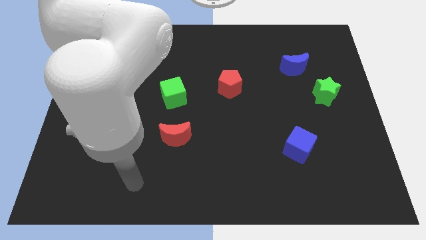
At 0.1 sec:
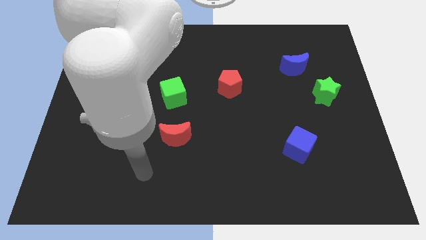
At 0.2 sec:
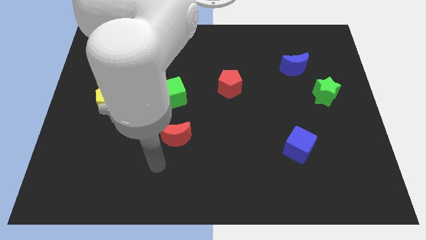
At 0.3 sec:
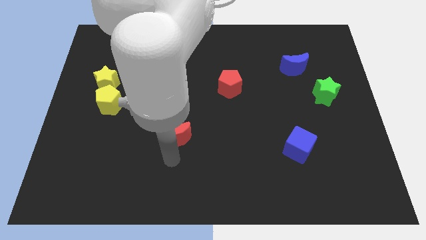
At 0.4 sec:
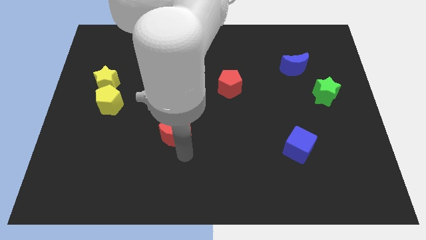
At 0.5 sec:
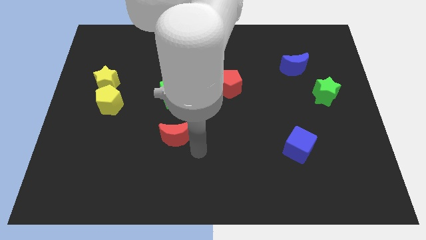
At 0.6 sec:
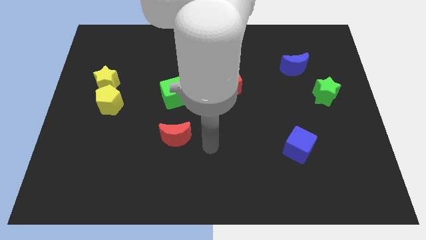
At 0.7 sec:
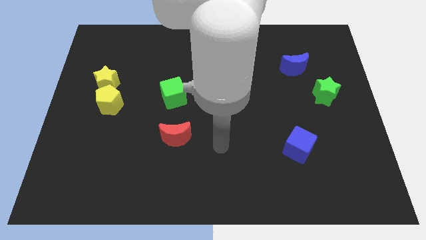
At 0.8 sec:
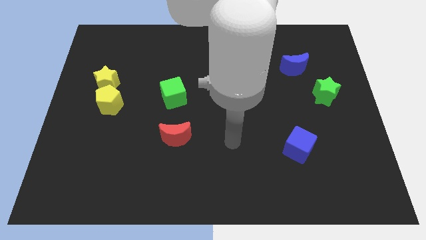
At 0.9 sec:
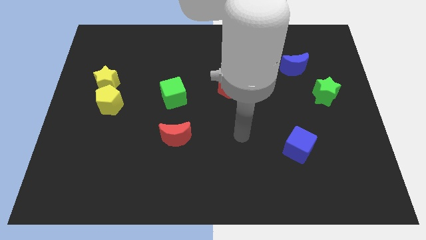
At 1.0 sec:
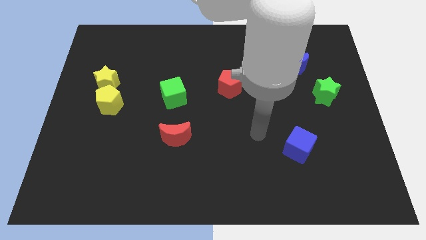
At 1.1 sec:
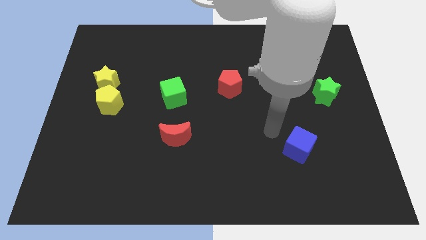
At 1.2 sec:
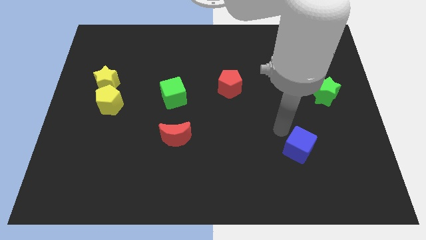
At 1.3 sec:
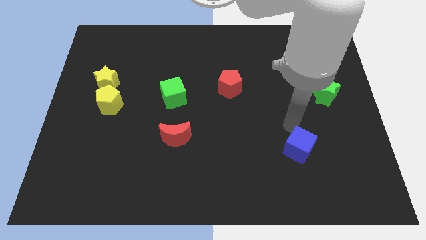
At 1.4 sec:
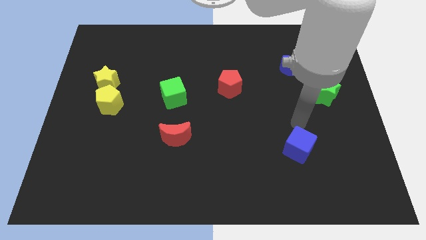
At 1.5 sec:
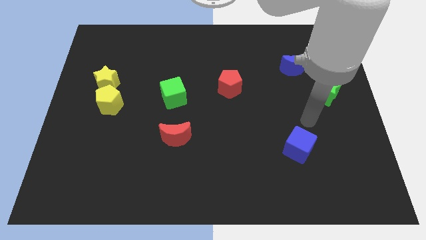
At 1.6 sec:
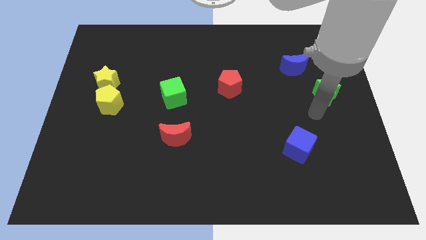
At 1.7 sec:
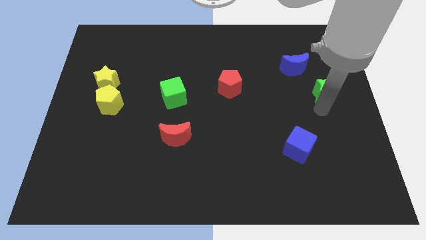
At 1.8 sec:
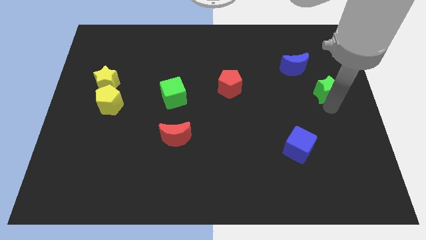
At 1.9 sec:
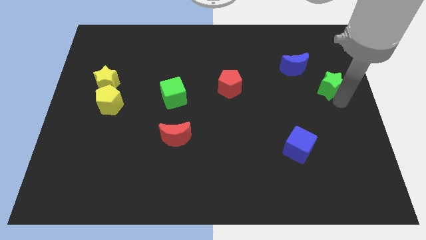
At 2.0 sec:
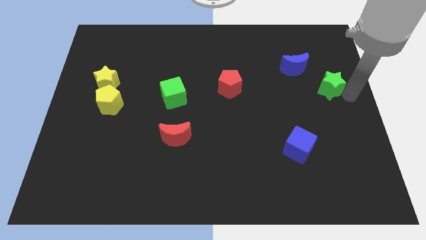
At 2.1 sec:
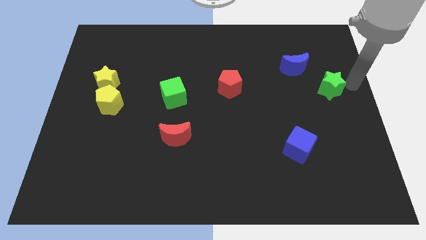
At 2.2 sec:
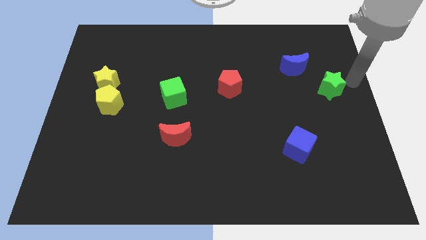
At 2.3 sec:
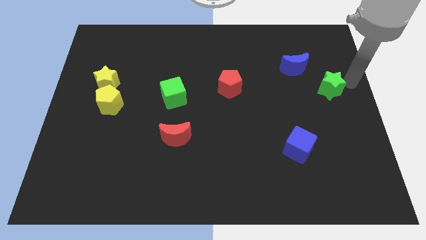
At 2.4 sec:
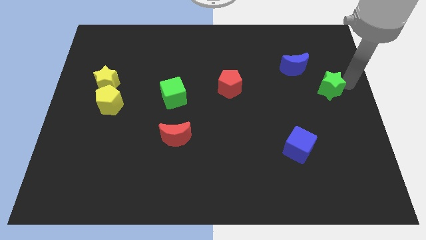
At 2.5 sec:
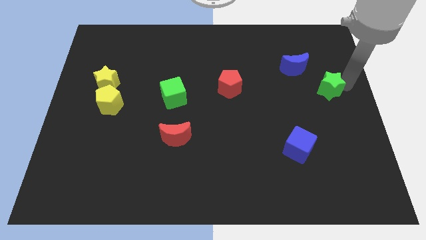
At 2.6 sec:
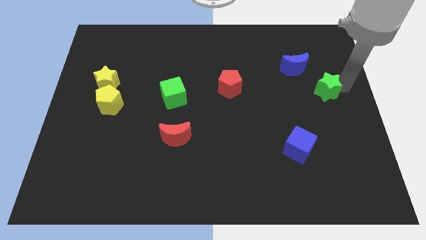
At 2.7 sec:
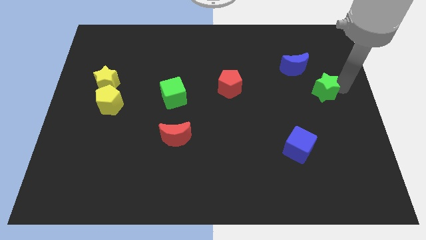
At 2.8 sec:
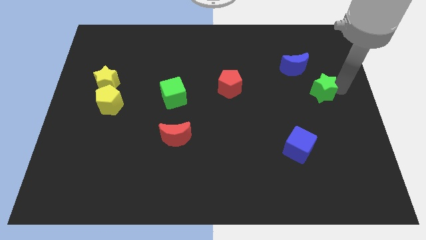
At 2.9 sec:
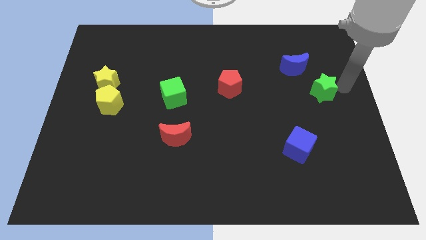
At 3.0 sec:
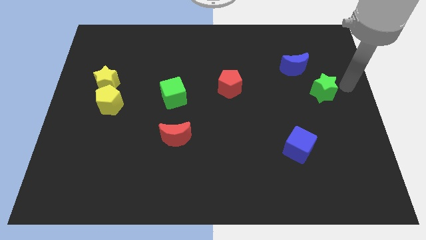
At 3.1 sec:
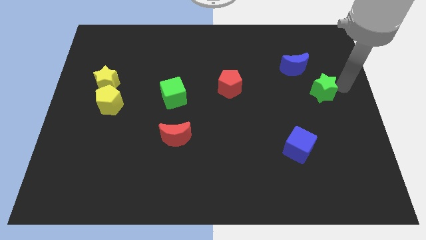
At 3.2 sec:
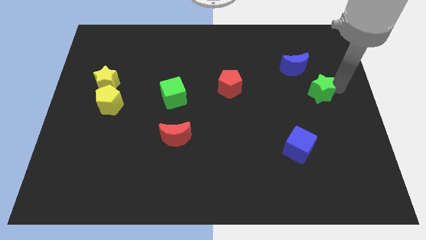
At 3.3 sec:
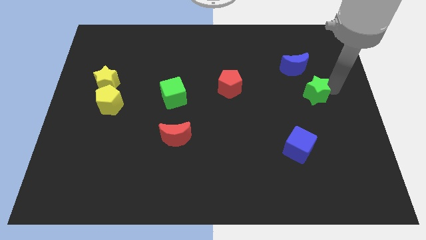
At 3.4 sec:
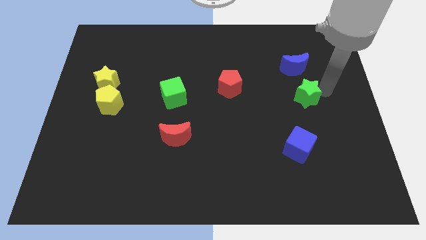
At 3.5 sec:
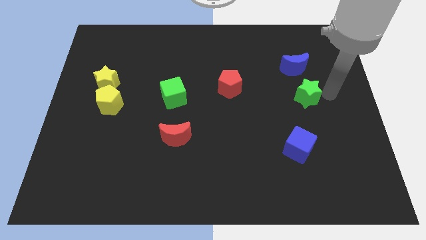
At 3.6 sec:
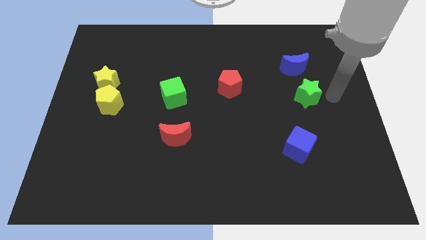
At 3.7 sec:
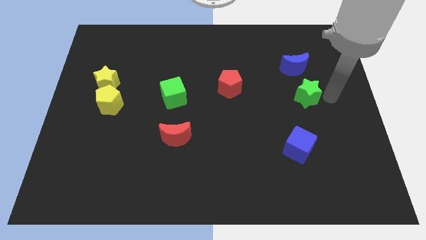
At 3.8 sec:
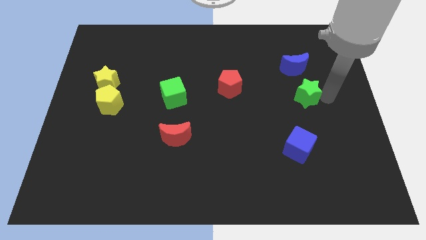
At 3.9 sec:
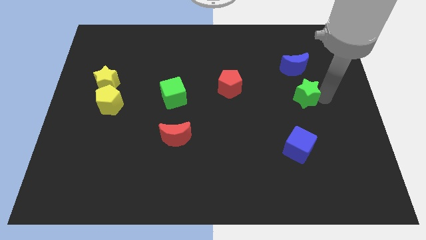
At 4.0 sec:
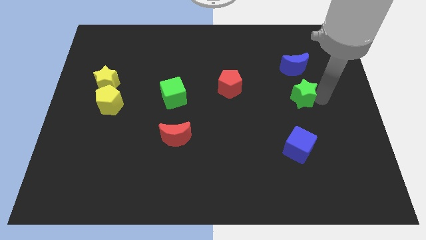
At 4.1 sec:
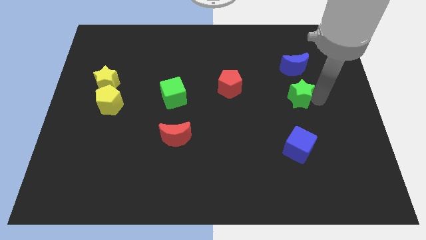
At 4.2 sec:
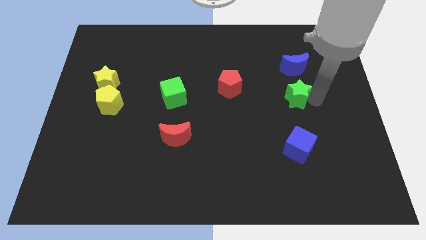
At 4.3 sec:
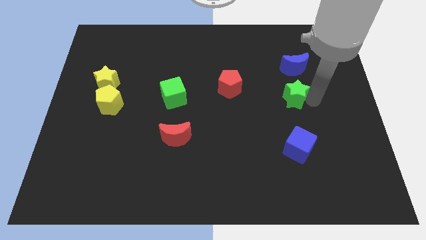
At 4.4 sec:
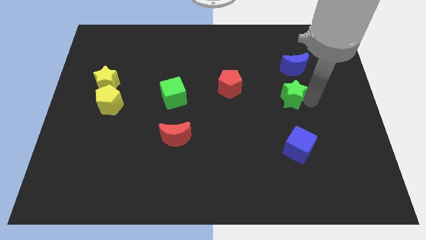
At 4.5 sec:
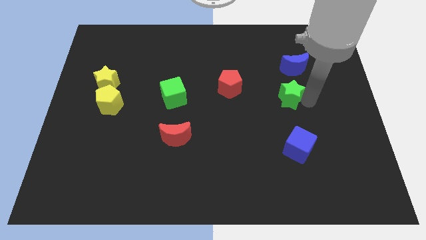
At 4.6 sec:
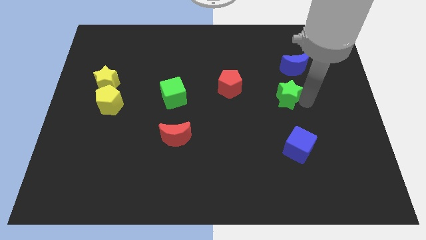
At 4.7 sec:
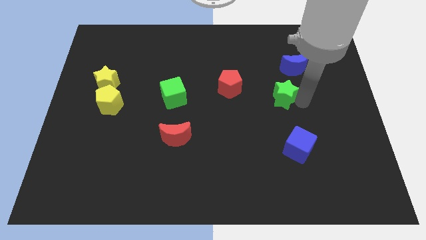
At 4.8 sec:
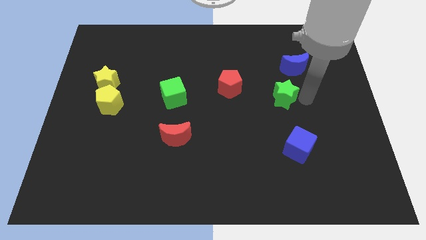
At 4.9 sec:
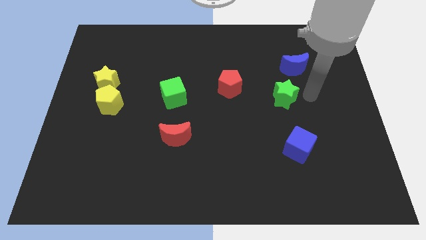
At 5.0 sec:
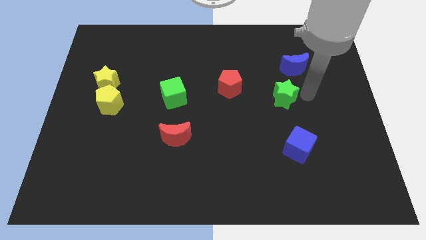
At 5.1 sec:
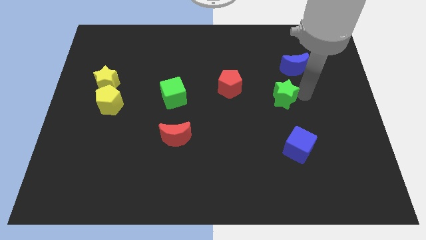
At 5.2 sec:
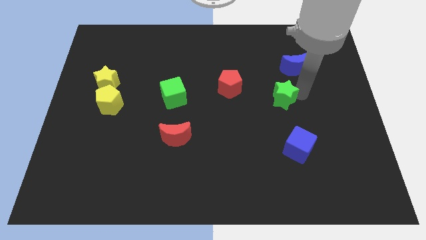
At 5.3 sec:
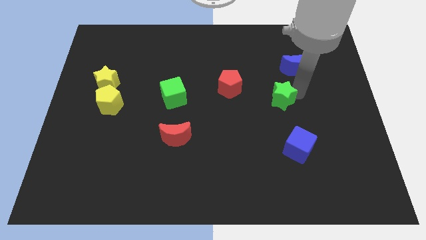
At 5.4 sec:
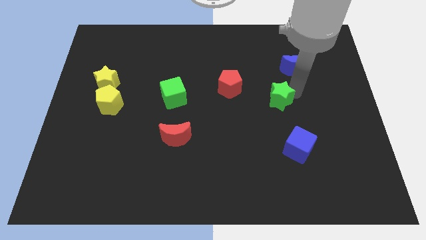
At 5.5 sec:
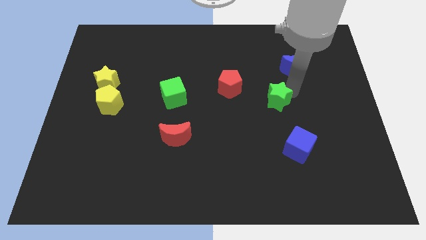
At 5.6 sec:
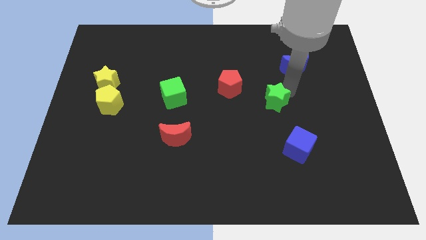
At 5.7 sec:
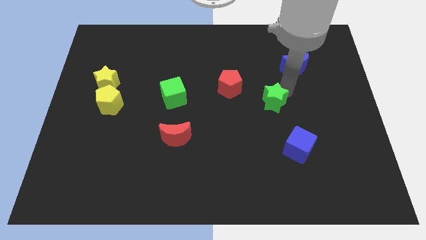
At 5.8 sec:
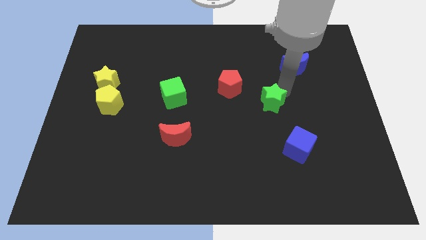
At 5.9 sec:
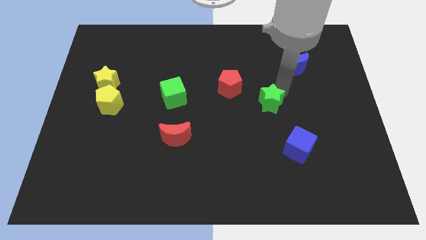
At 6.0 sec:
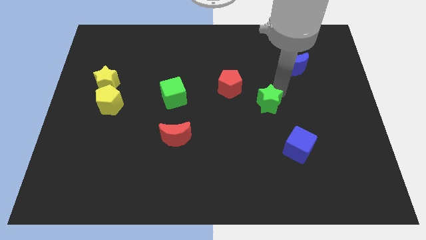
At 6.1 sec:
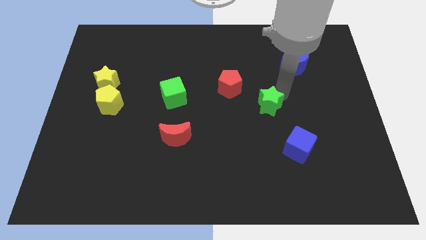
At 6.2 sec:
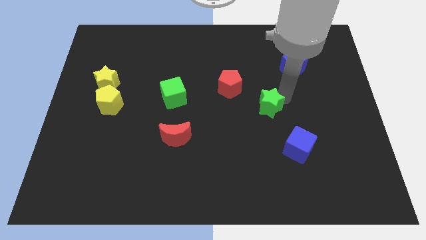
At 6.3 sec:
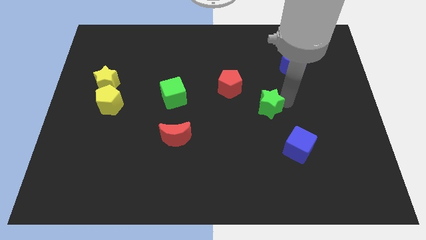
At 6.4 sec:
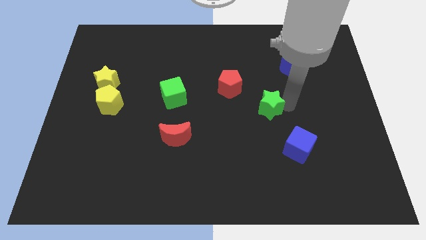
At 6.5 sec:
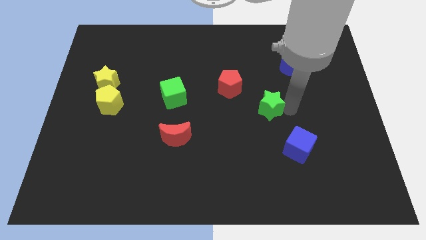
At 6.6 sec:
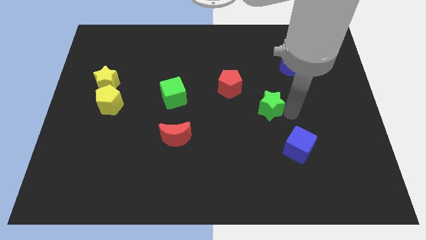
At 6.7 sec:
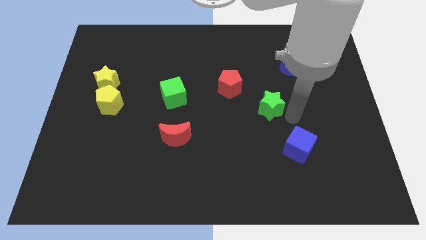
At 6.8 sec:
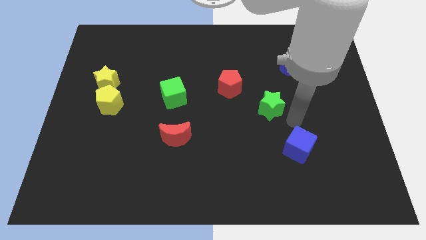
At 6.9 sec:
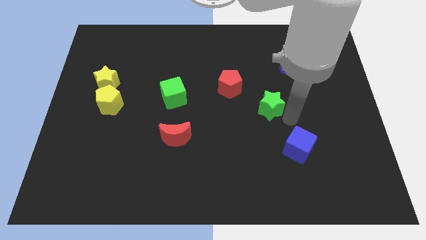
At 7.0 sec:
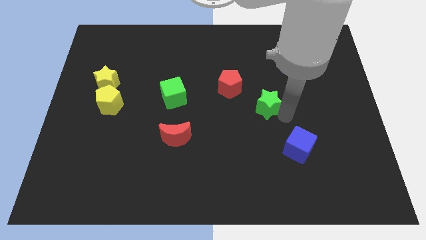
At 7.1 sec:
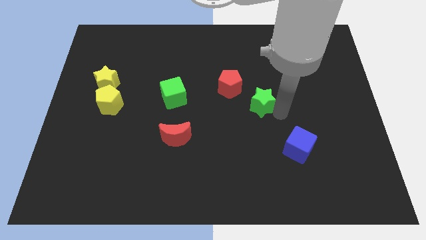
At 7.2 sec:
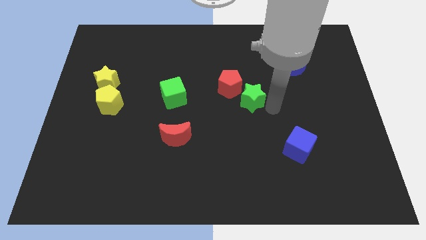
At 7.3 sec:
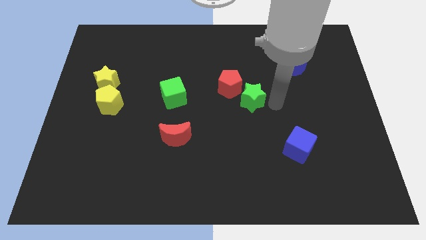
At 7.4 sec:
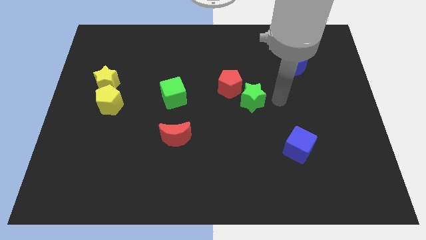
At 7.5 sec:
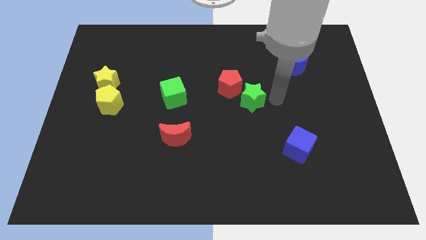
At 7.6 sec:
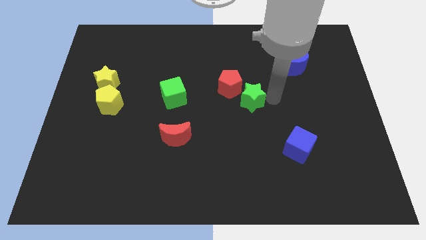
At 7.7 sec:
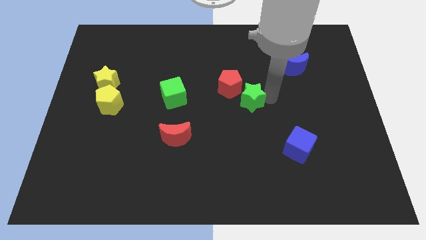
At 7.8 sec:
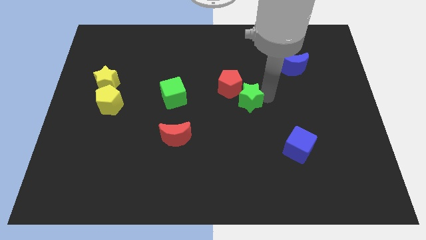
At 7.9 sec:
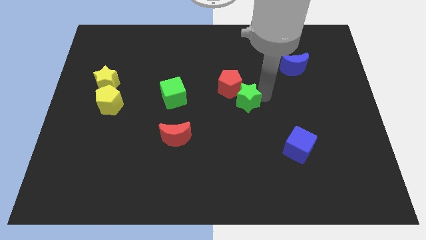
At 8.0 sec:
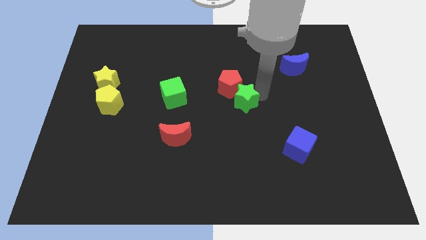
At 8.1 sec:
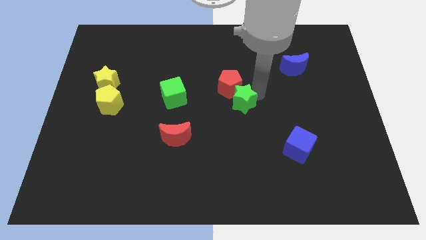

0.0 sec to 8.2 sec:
push the green star to the left
